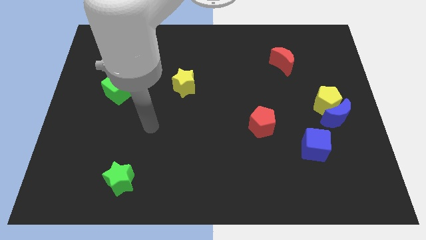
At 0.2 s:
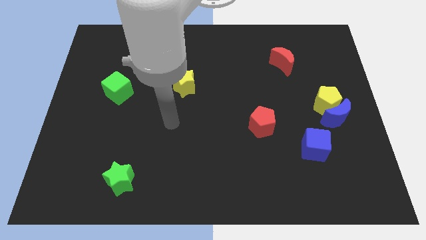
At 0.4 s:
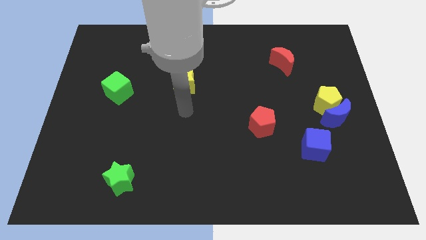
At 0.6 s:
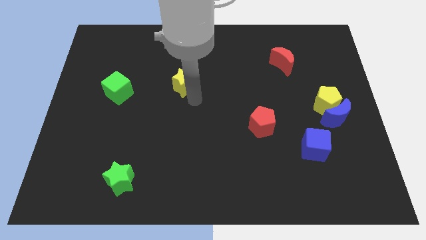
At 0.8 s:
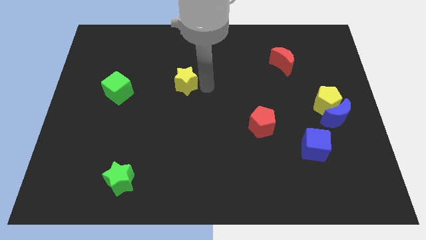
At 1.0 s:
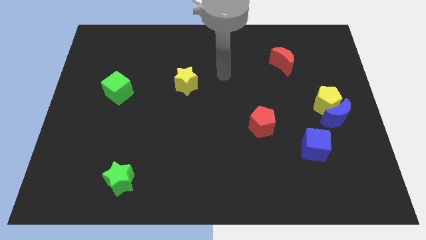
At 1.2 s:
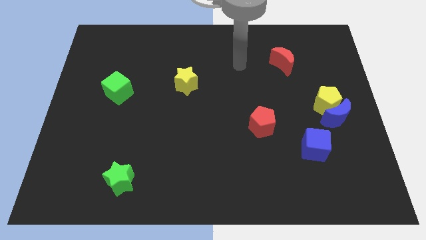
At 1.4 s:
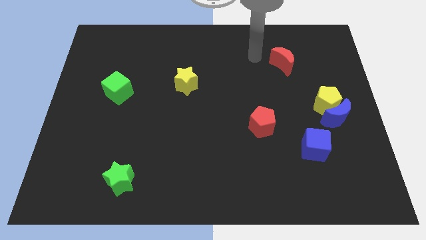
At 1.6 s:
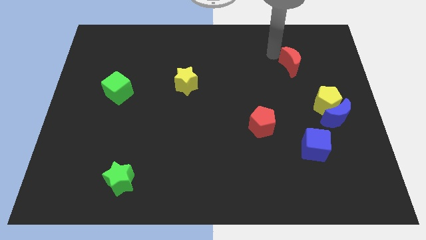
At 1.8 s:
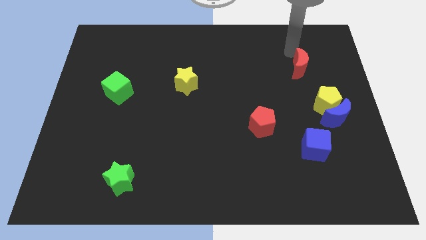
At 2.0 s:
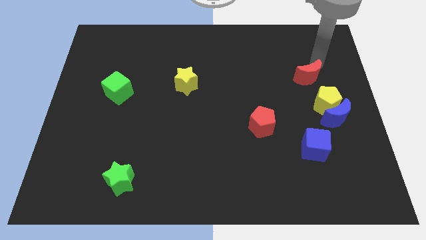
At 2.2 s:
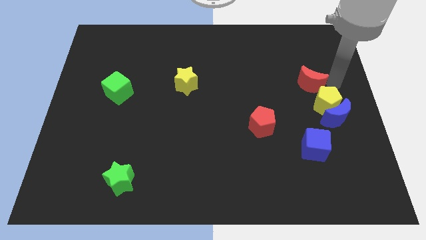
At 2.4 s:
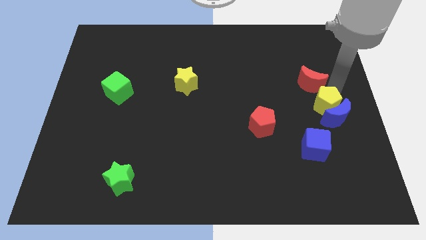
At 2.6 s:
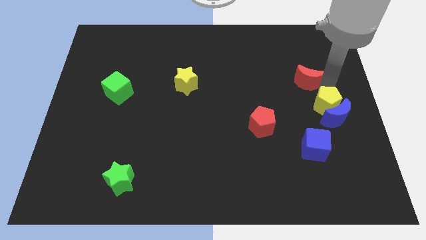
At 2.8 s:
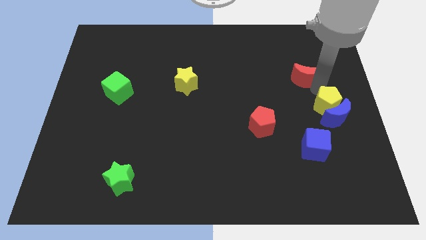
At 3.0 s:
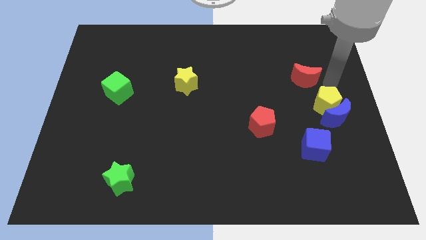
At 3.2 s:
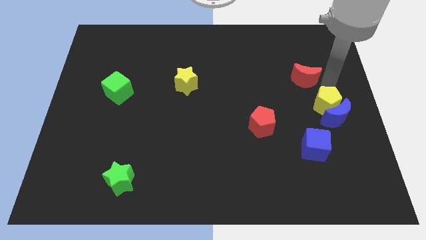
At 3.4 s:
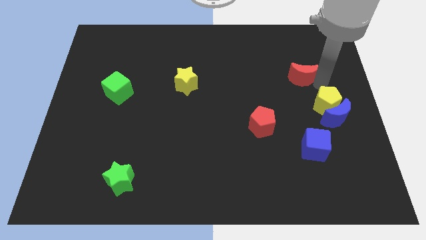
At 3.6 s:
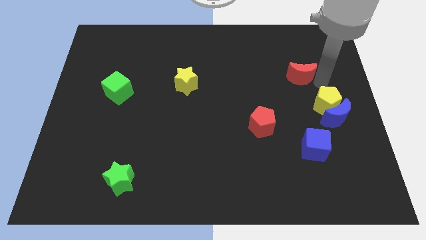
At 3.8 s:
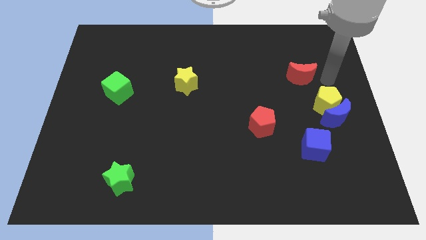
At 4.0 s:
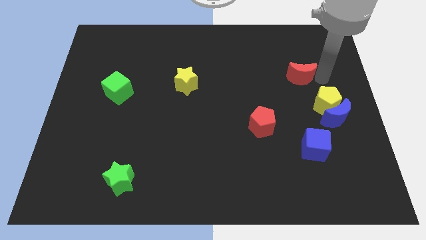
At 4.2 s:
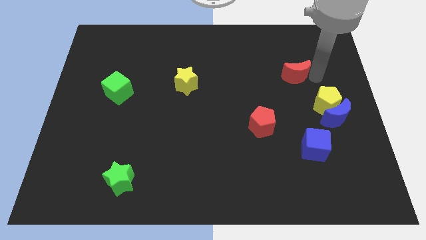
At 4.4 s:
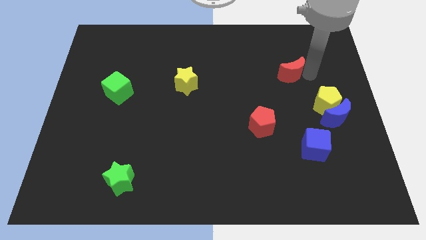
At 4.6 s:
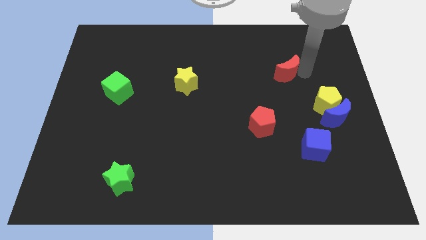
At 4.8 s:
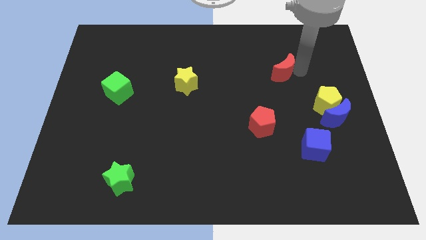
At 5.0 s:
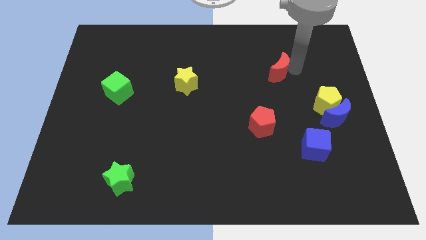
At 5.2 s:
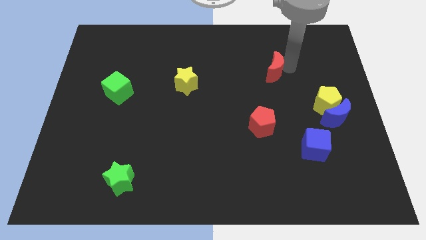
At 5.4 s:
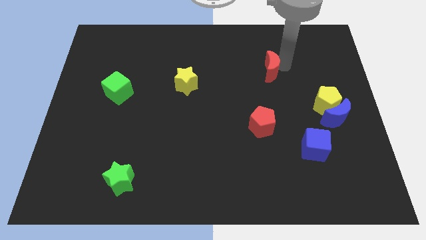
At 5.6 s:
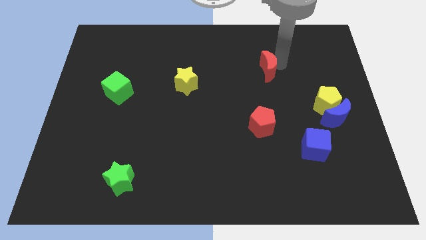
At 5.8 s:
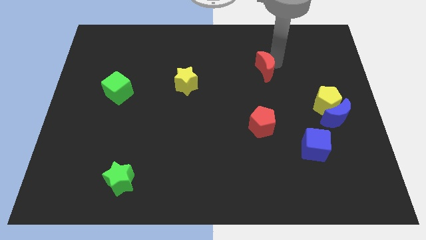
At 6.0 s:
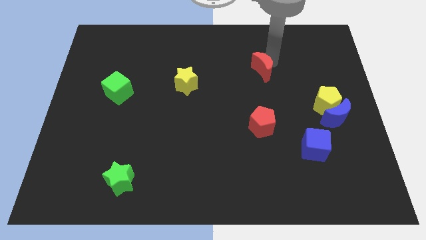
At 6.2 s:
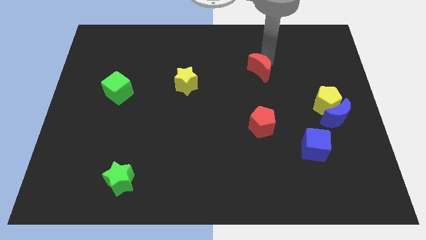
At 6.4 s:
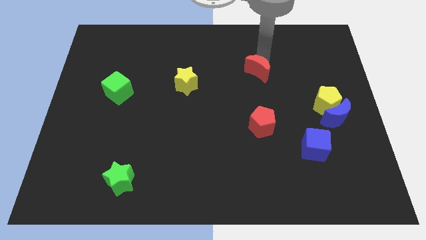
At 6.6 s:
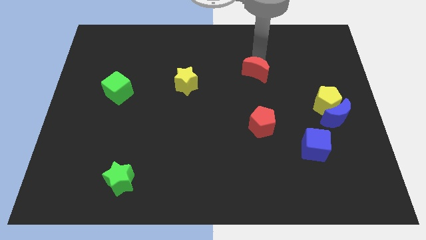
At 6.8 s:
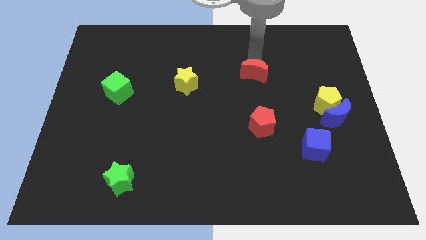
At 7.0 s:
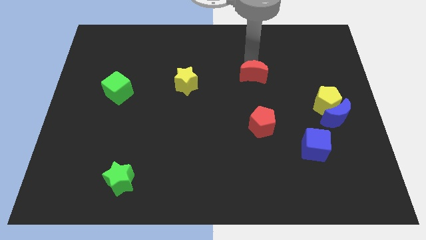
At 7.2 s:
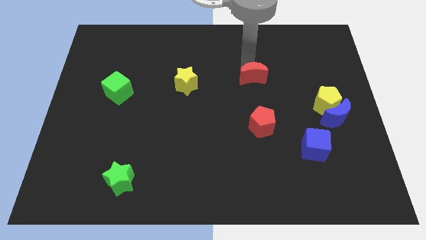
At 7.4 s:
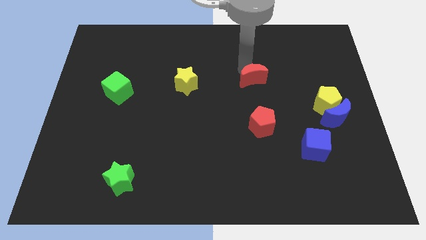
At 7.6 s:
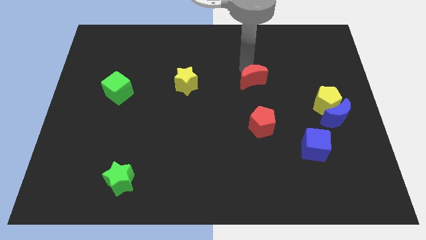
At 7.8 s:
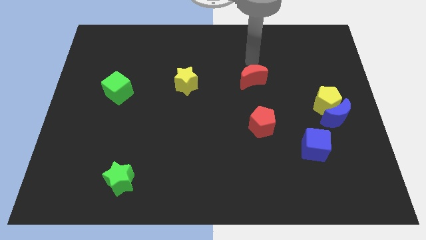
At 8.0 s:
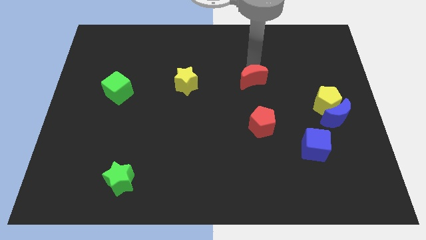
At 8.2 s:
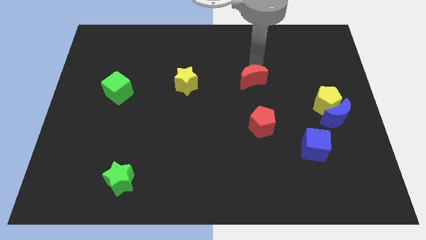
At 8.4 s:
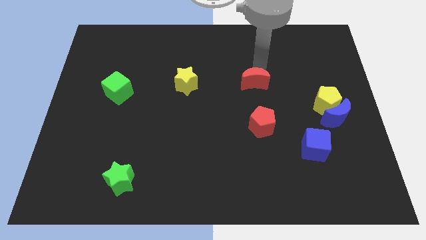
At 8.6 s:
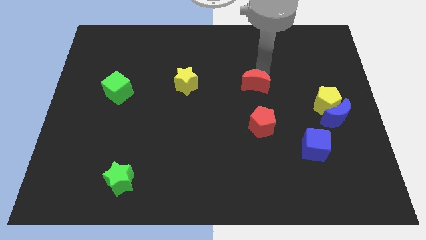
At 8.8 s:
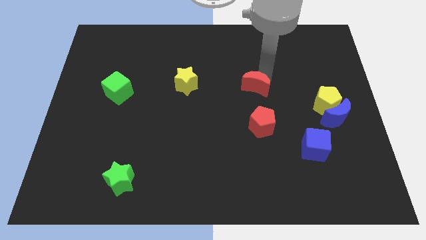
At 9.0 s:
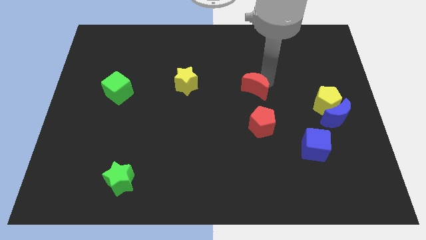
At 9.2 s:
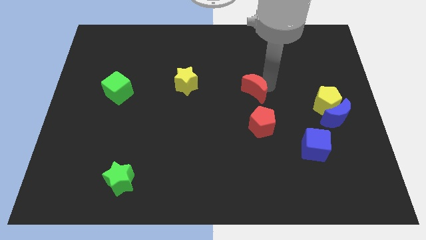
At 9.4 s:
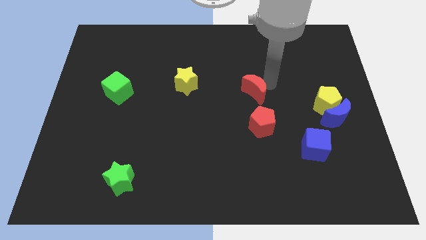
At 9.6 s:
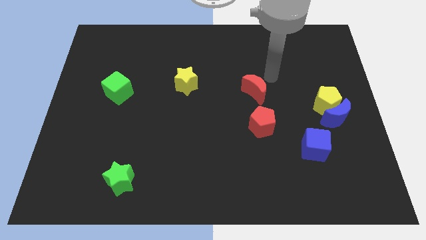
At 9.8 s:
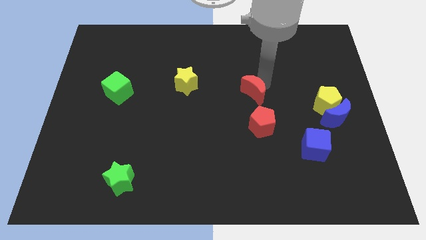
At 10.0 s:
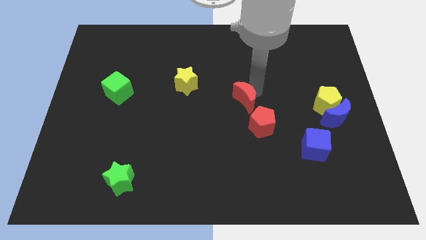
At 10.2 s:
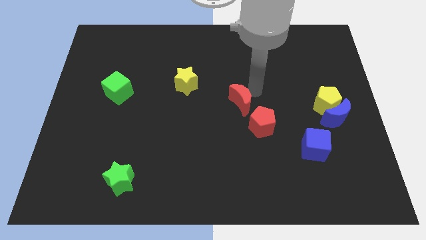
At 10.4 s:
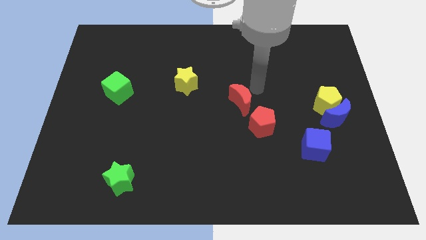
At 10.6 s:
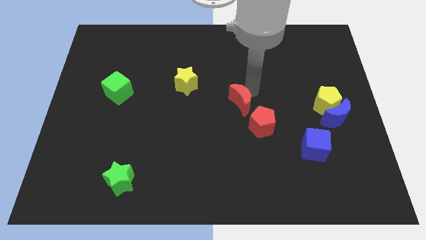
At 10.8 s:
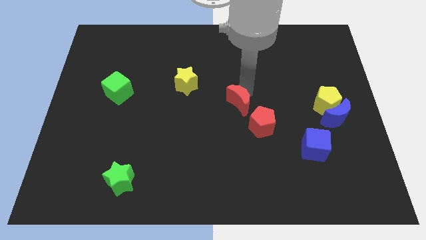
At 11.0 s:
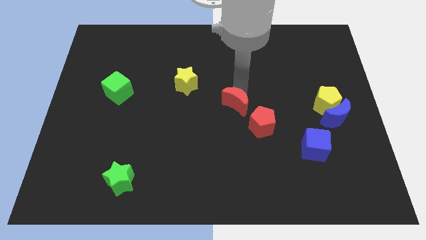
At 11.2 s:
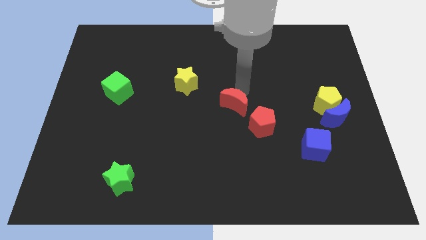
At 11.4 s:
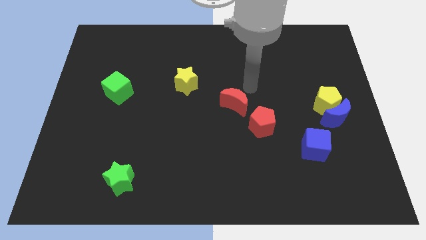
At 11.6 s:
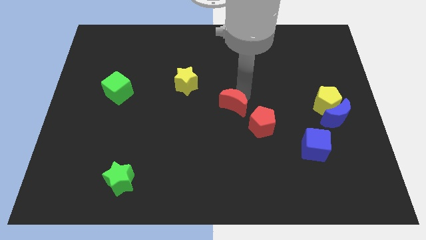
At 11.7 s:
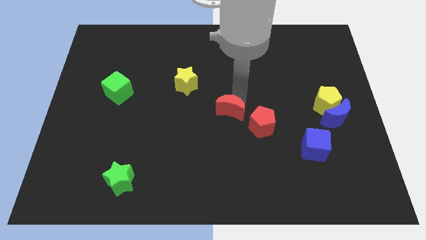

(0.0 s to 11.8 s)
push the red moon downwards and left

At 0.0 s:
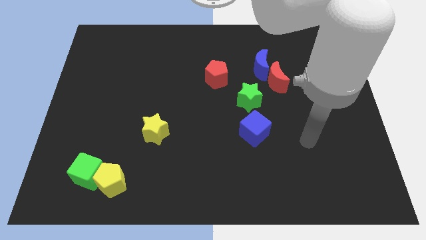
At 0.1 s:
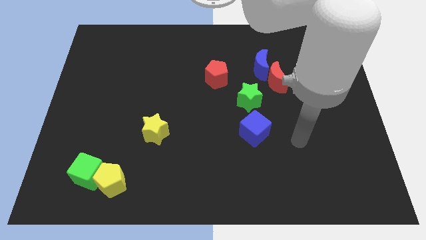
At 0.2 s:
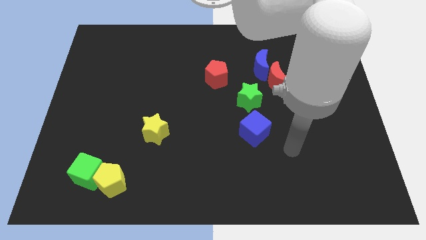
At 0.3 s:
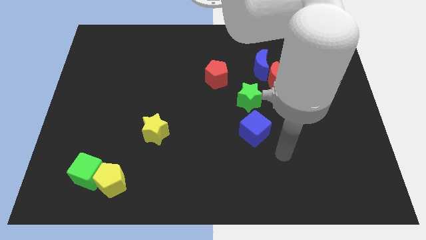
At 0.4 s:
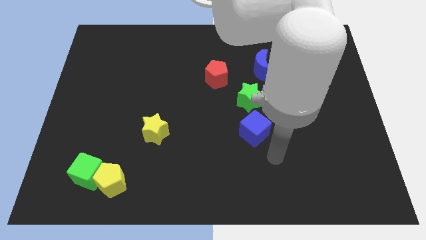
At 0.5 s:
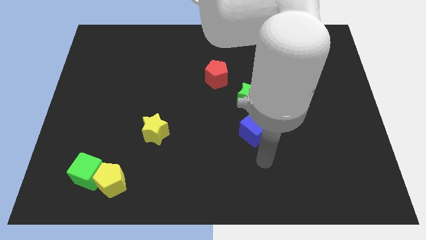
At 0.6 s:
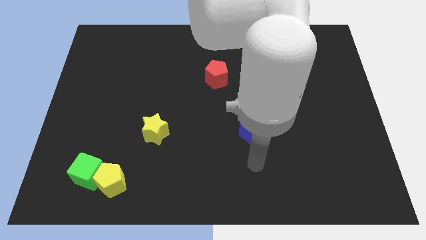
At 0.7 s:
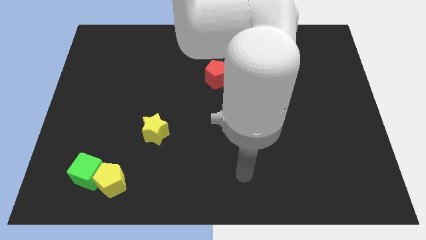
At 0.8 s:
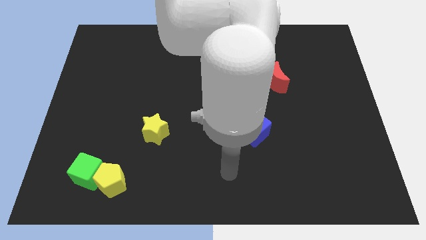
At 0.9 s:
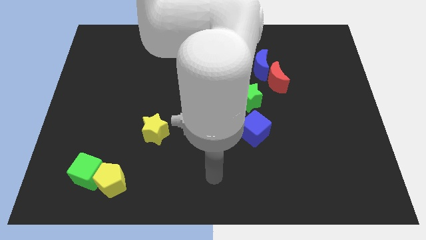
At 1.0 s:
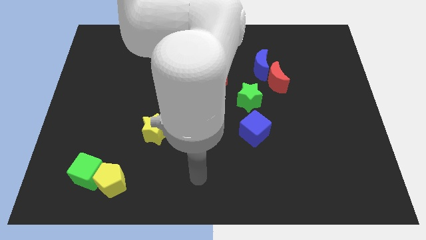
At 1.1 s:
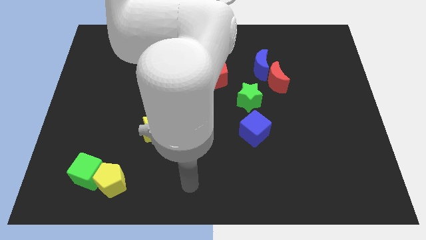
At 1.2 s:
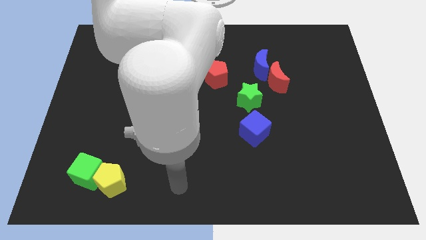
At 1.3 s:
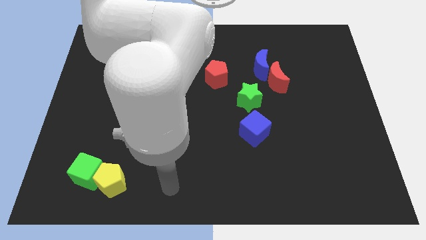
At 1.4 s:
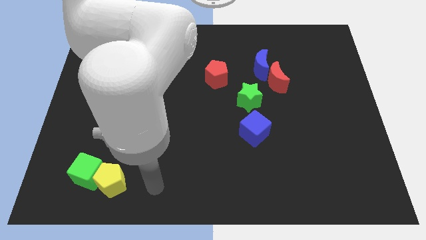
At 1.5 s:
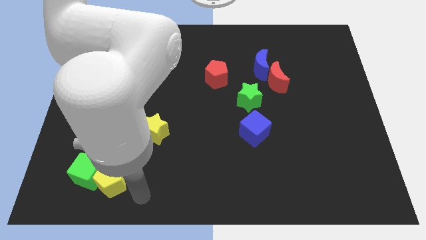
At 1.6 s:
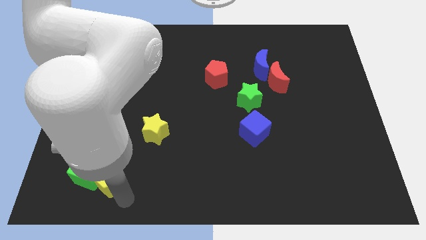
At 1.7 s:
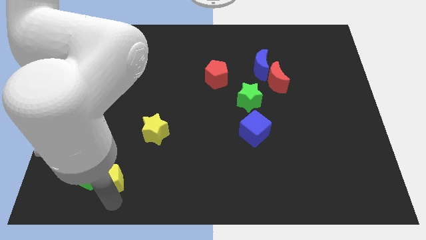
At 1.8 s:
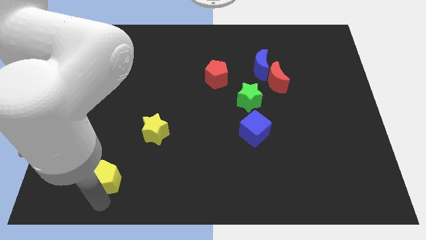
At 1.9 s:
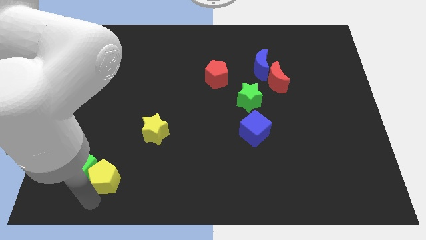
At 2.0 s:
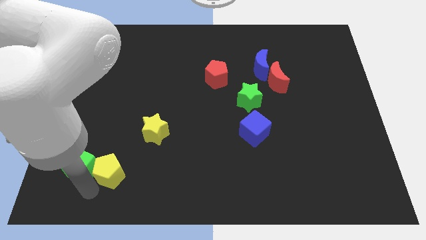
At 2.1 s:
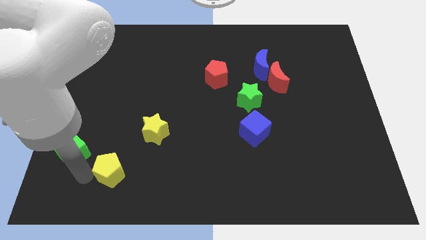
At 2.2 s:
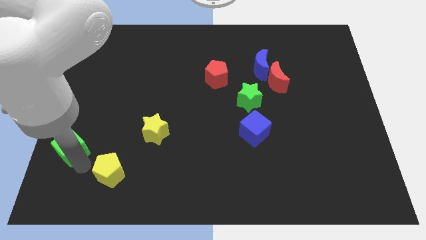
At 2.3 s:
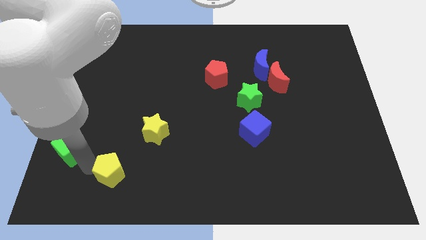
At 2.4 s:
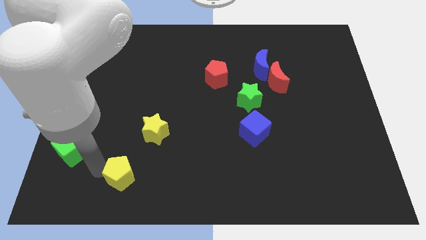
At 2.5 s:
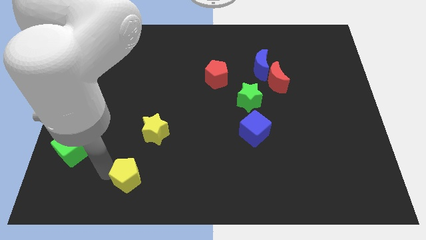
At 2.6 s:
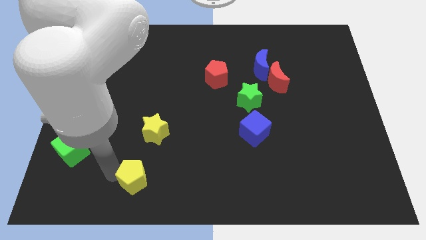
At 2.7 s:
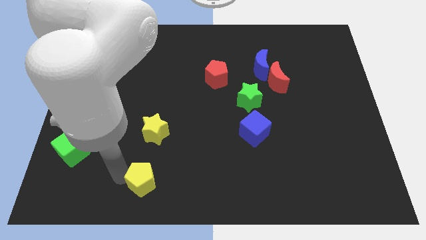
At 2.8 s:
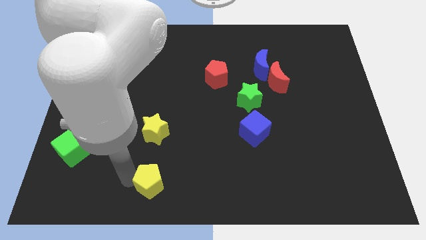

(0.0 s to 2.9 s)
move the yellow pentagon a little right
